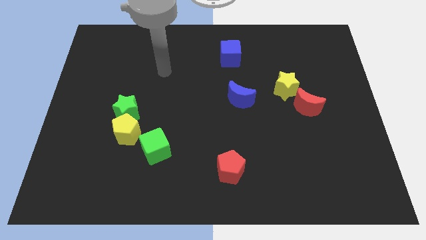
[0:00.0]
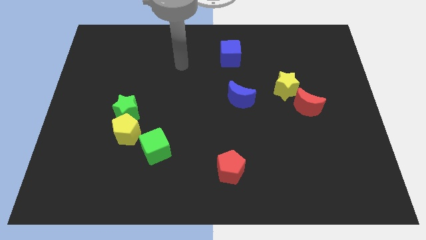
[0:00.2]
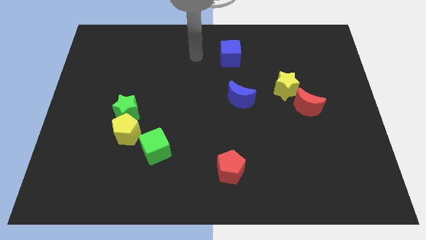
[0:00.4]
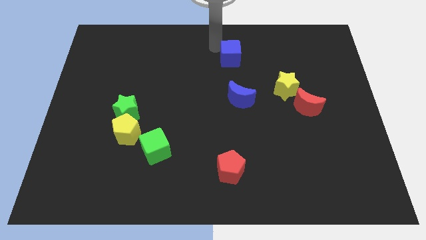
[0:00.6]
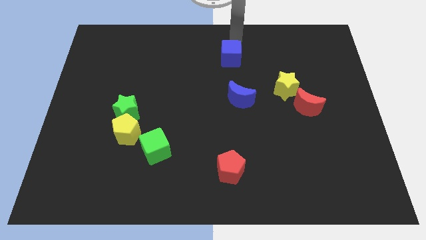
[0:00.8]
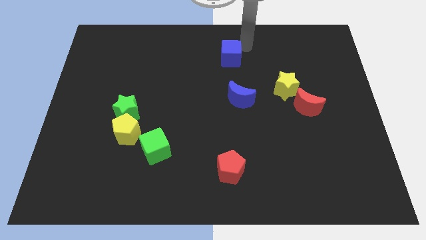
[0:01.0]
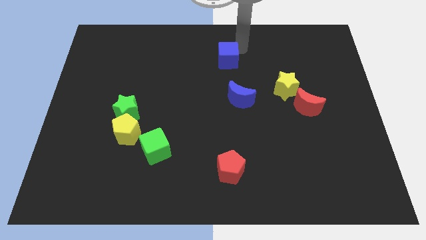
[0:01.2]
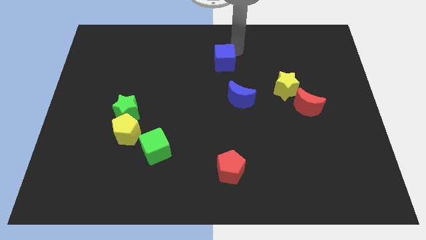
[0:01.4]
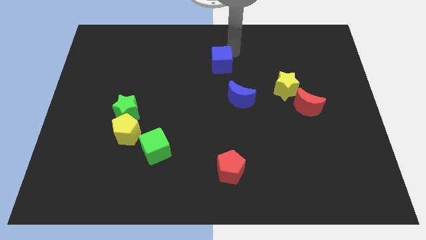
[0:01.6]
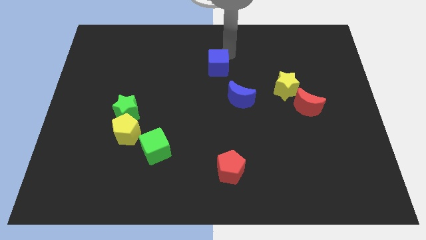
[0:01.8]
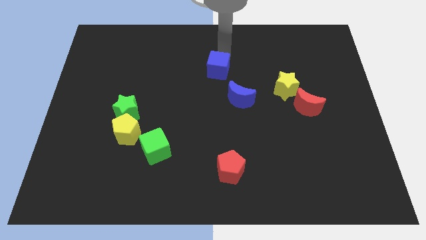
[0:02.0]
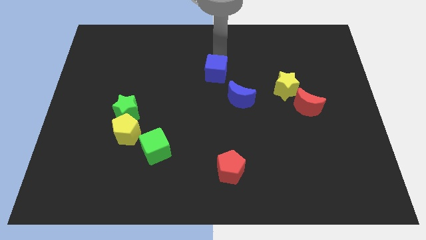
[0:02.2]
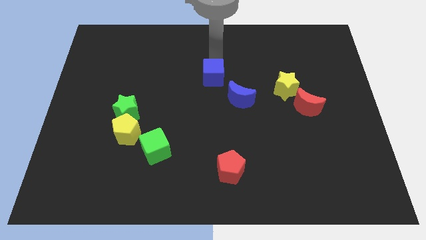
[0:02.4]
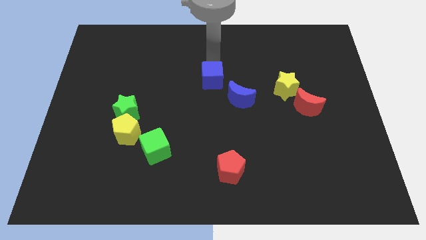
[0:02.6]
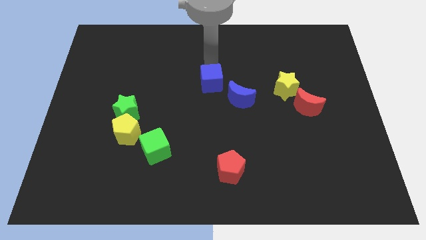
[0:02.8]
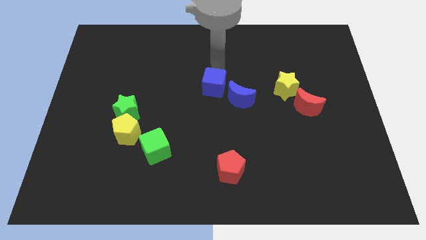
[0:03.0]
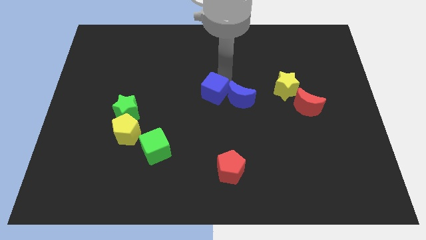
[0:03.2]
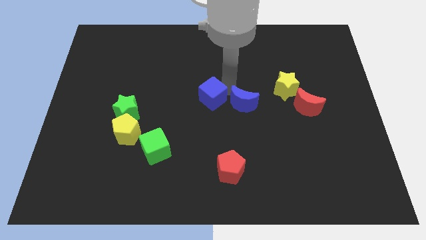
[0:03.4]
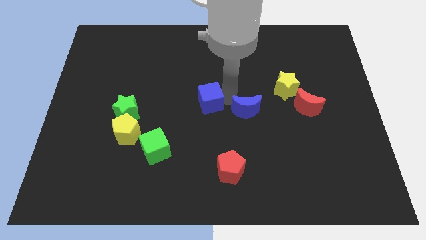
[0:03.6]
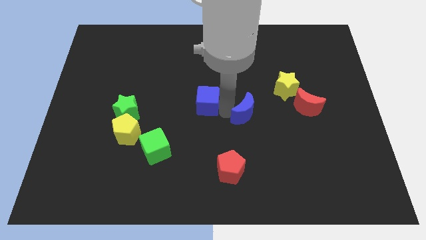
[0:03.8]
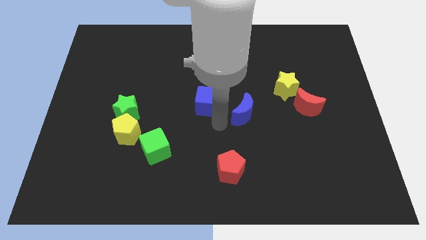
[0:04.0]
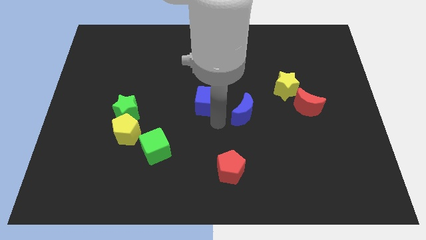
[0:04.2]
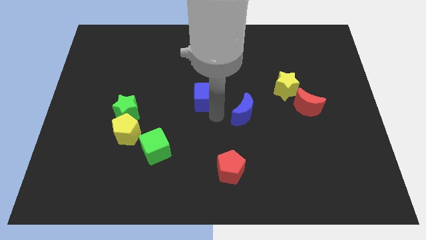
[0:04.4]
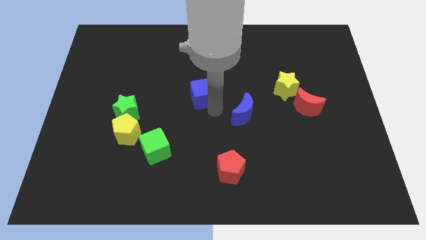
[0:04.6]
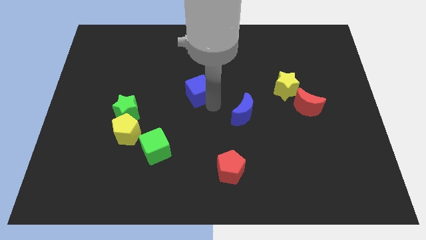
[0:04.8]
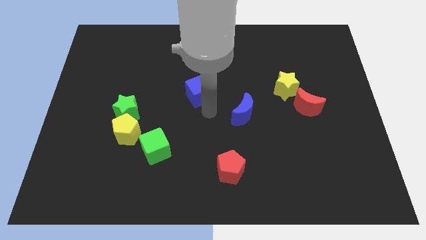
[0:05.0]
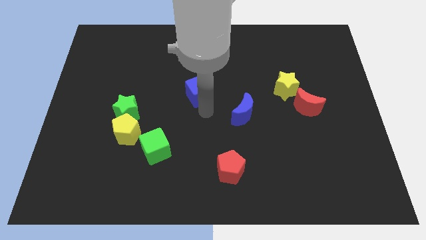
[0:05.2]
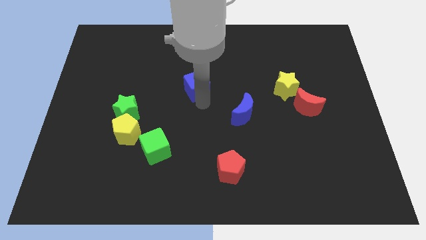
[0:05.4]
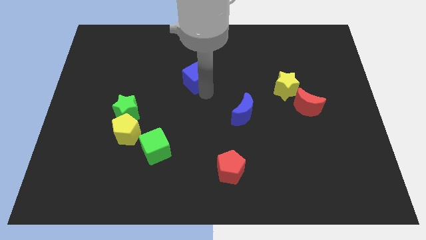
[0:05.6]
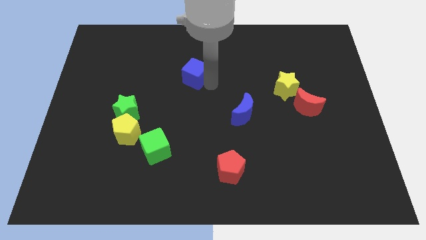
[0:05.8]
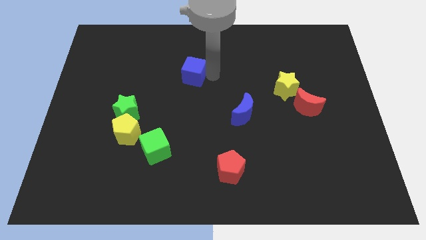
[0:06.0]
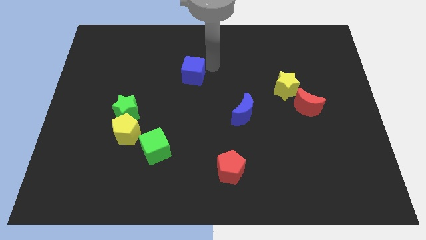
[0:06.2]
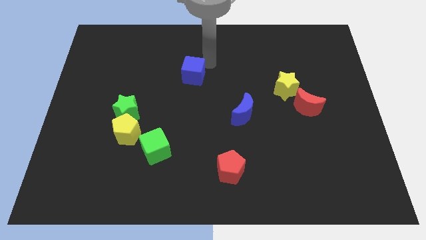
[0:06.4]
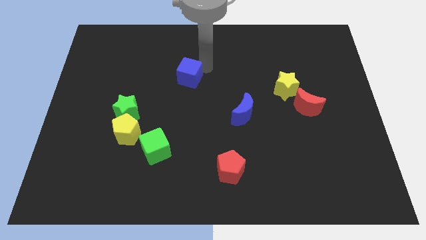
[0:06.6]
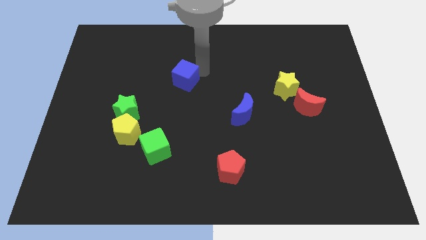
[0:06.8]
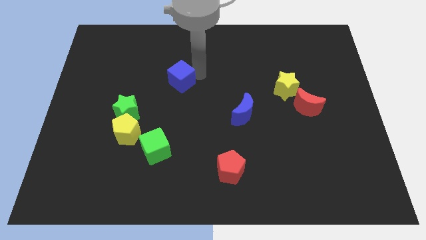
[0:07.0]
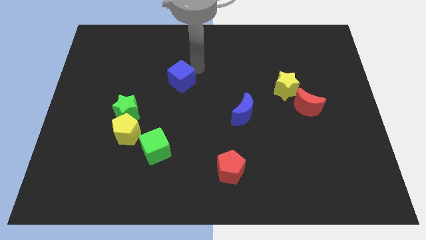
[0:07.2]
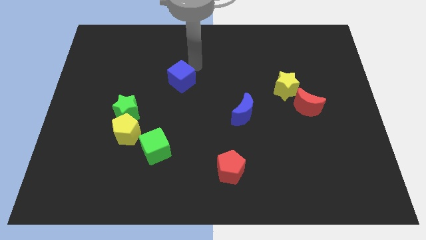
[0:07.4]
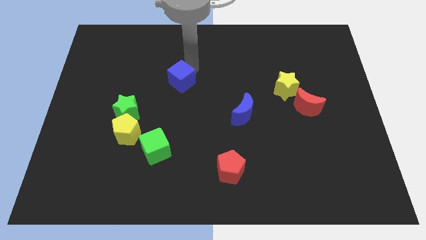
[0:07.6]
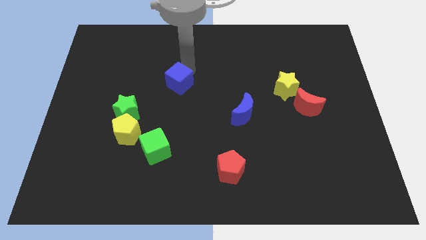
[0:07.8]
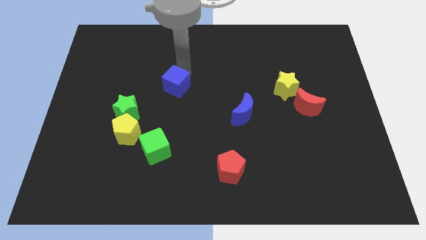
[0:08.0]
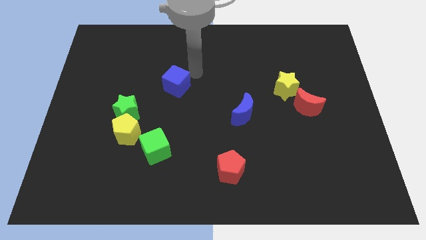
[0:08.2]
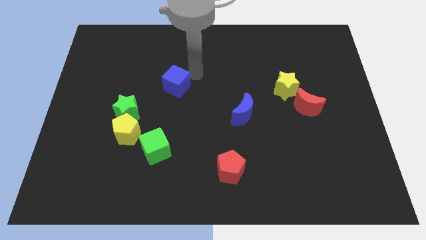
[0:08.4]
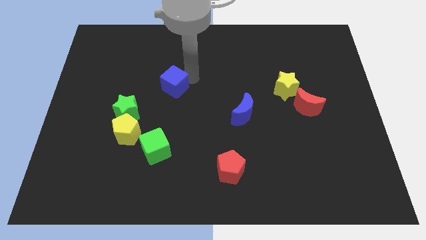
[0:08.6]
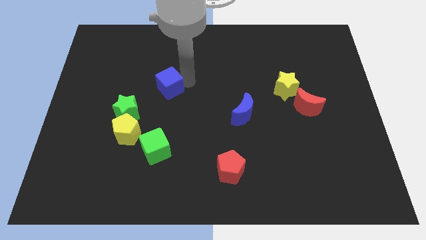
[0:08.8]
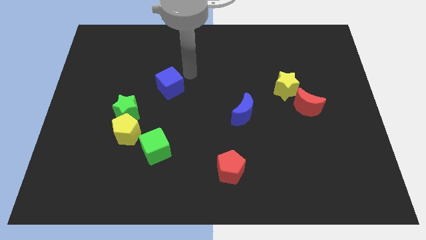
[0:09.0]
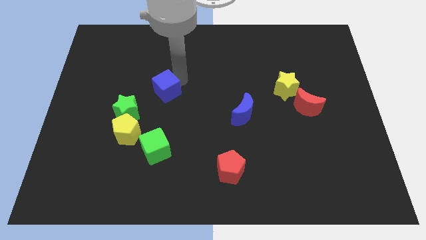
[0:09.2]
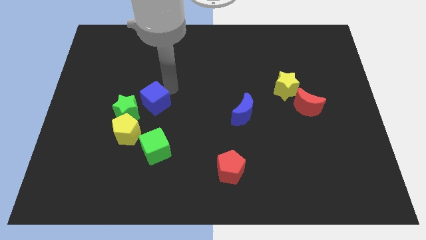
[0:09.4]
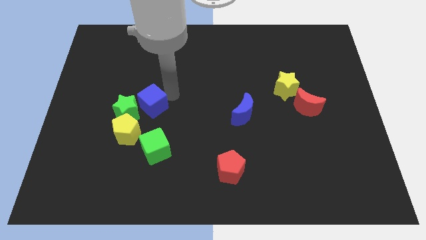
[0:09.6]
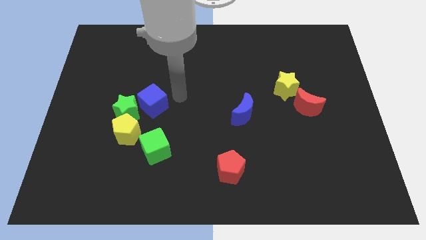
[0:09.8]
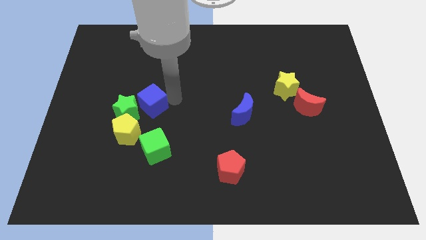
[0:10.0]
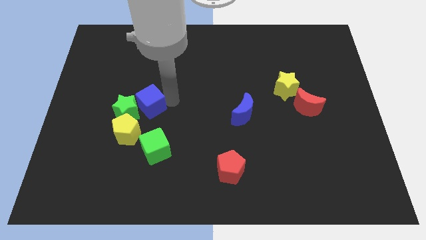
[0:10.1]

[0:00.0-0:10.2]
move the blue cube to the green star

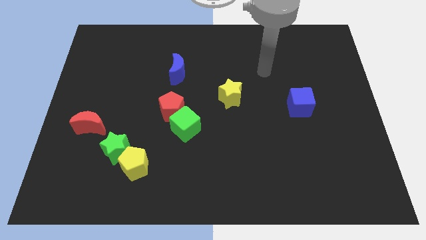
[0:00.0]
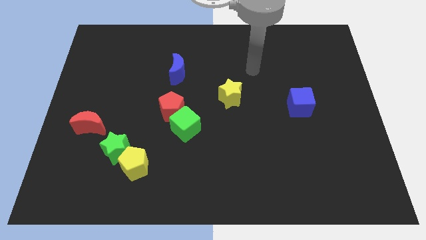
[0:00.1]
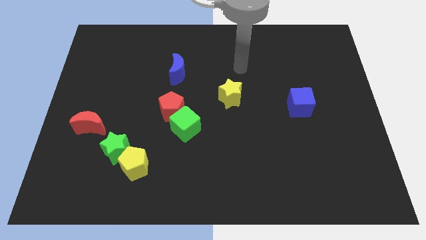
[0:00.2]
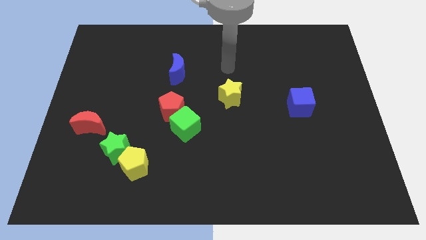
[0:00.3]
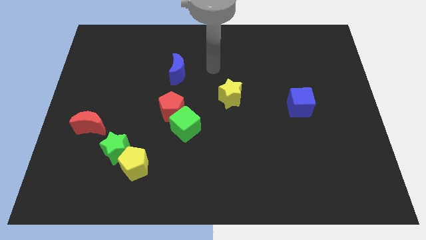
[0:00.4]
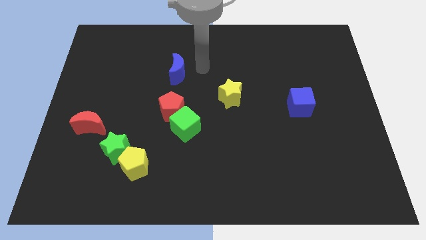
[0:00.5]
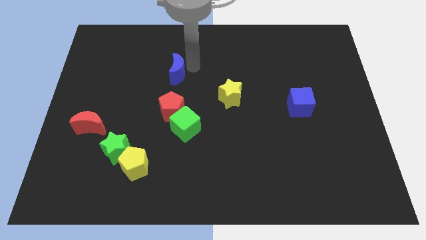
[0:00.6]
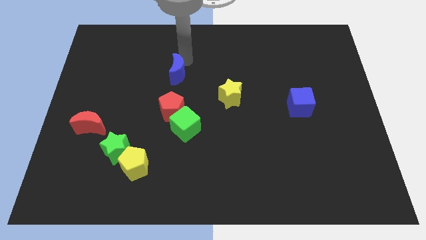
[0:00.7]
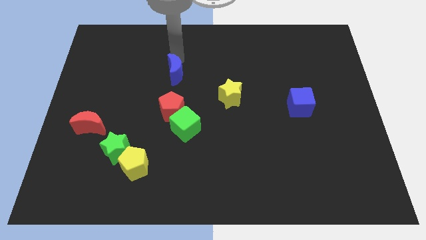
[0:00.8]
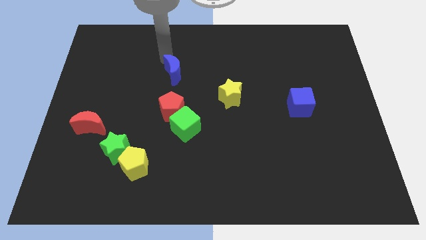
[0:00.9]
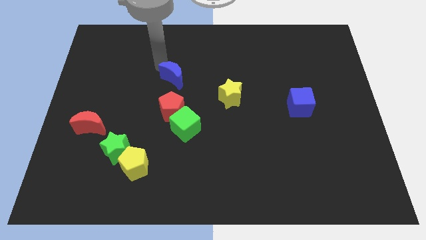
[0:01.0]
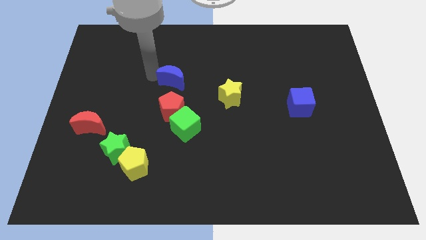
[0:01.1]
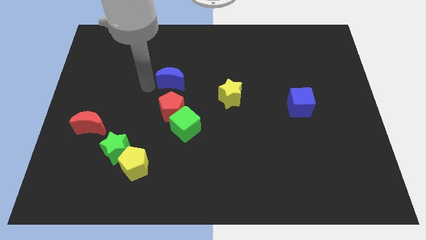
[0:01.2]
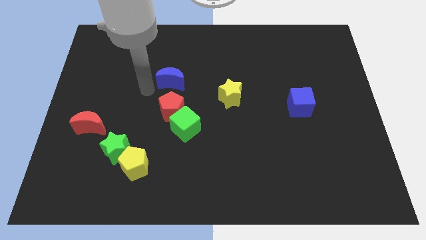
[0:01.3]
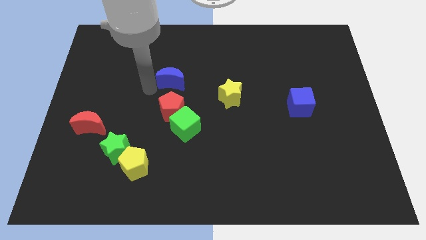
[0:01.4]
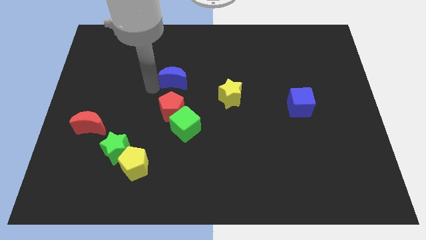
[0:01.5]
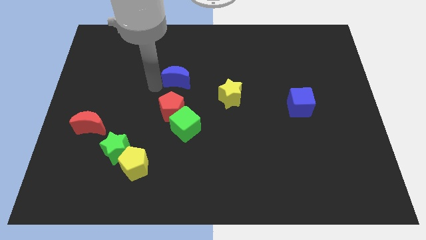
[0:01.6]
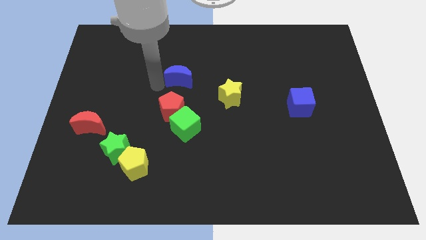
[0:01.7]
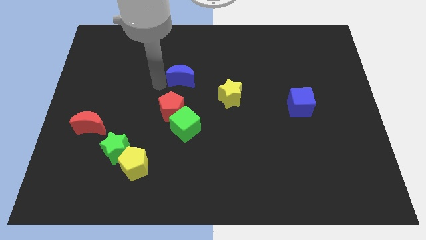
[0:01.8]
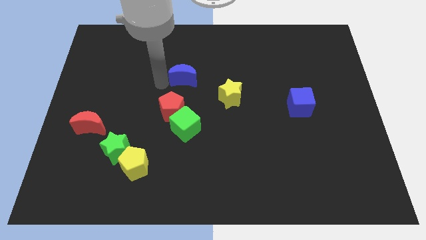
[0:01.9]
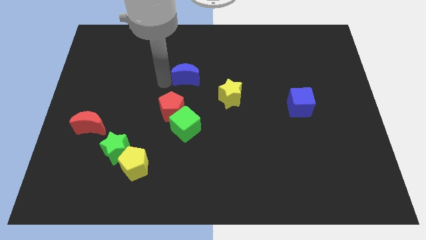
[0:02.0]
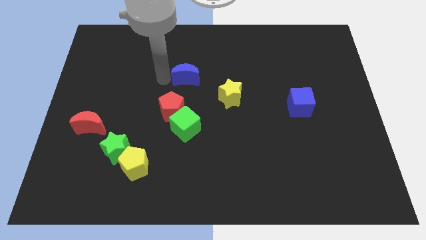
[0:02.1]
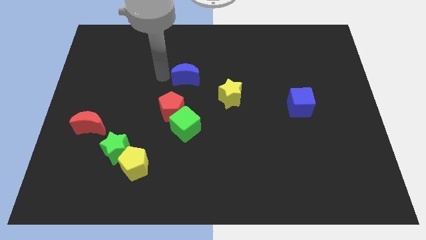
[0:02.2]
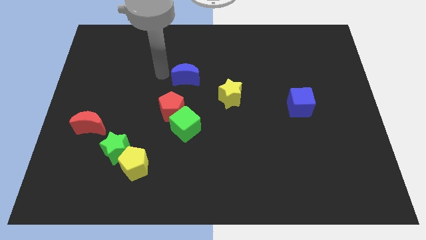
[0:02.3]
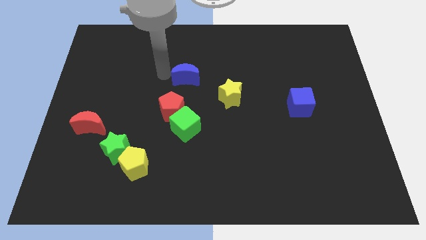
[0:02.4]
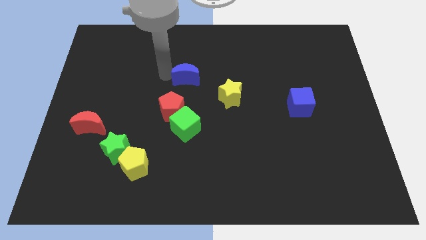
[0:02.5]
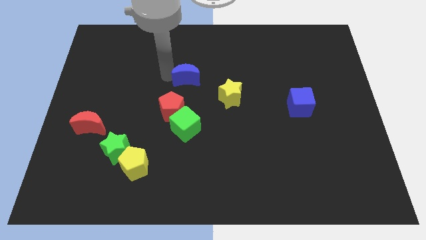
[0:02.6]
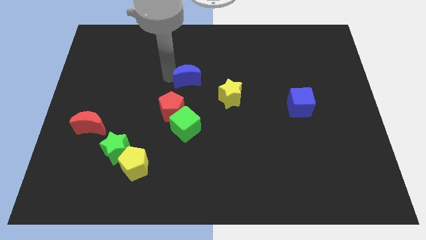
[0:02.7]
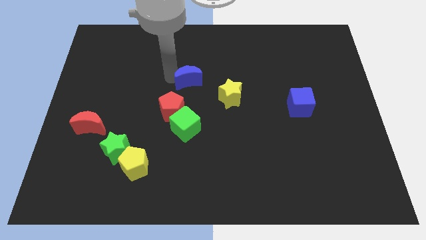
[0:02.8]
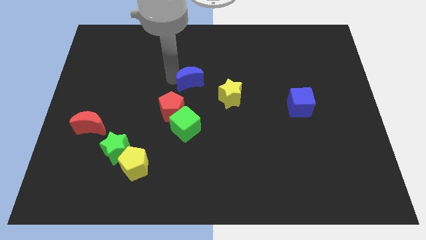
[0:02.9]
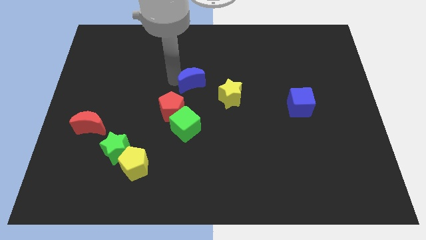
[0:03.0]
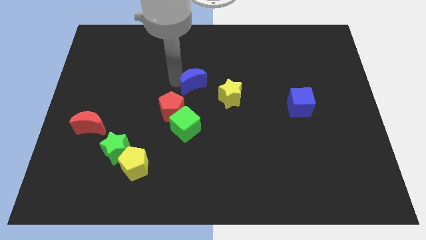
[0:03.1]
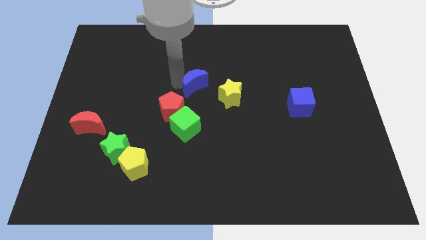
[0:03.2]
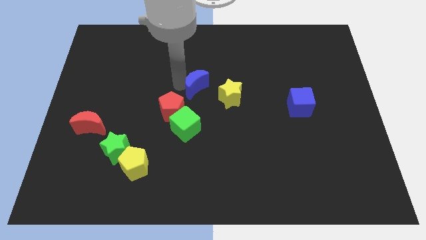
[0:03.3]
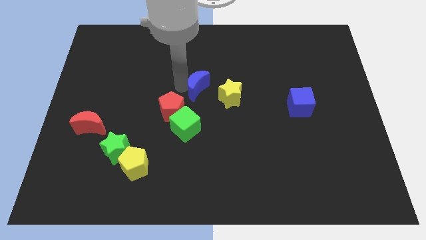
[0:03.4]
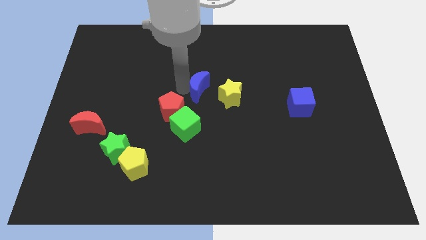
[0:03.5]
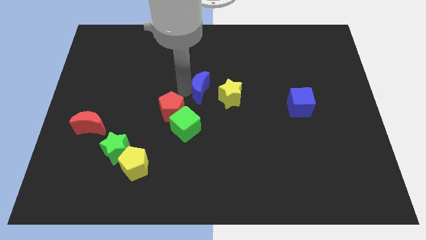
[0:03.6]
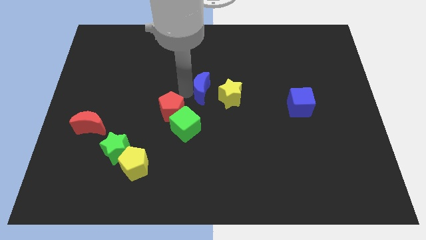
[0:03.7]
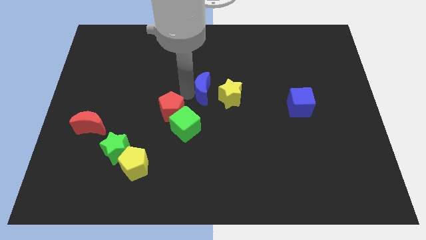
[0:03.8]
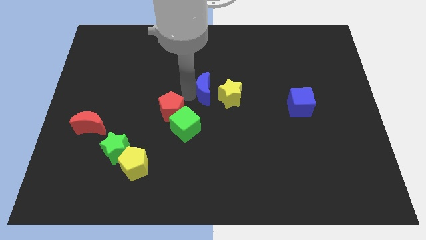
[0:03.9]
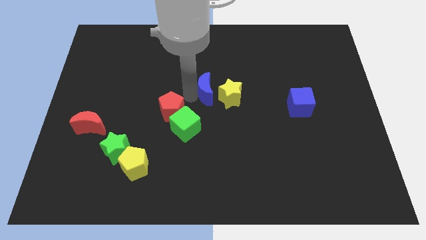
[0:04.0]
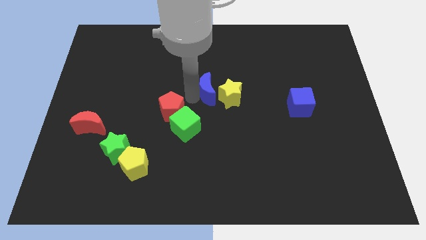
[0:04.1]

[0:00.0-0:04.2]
slide the blue moon close to the yellow star
